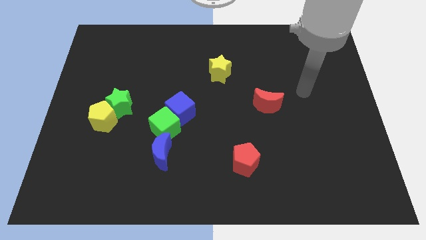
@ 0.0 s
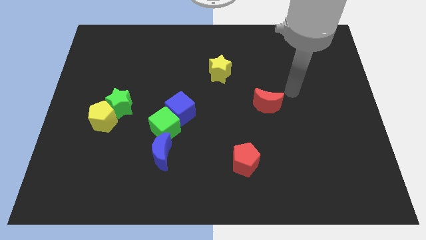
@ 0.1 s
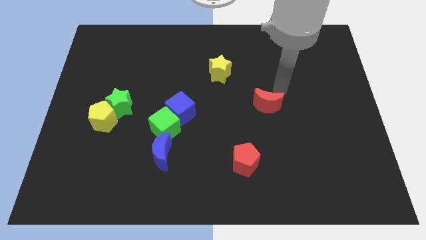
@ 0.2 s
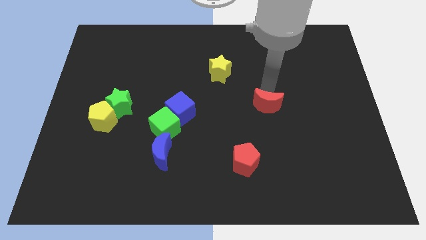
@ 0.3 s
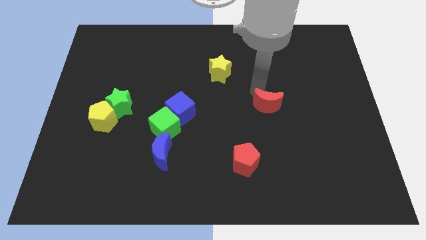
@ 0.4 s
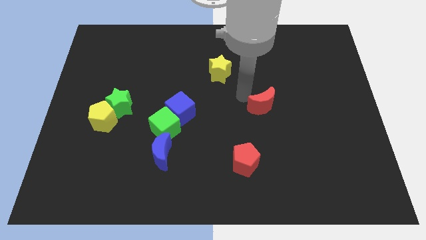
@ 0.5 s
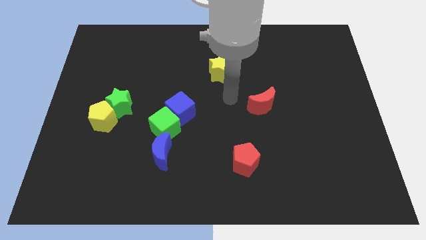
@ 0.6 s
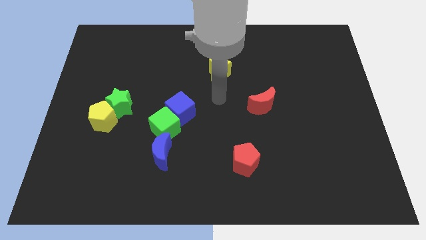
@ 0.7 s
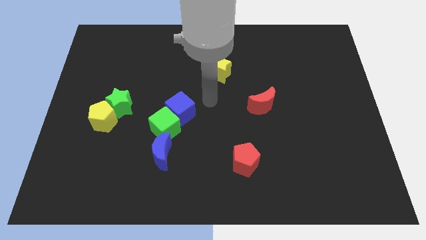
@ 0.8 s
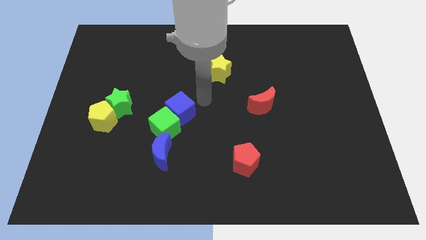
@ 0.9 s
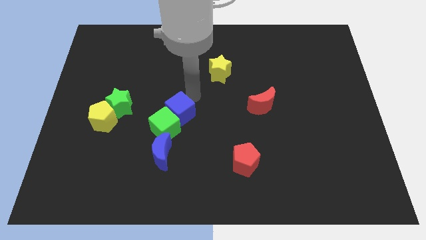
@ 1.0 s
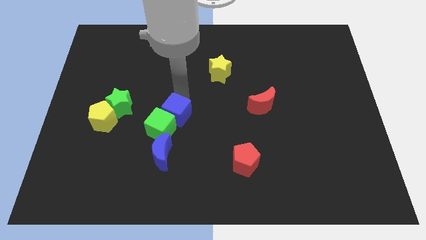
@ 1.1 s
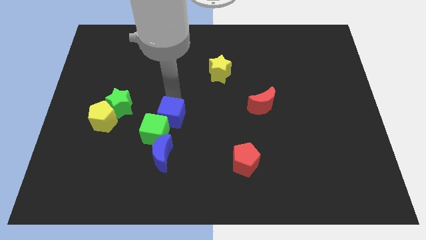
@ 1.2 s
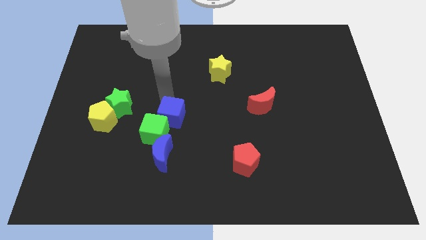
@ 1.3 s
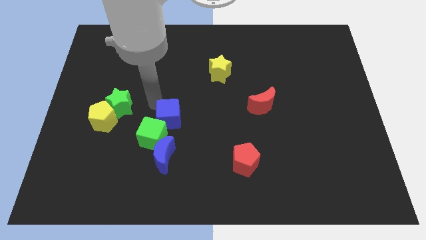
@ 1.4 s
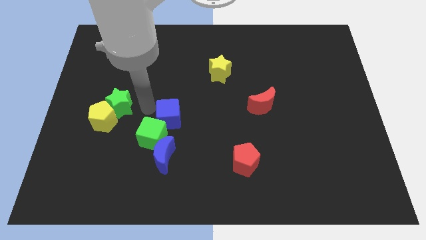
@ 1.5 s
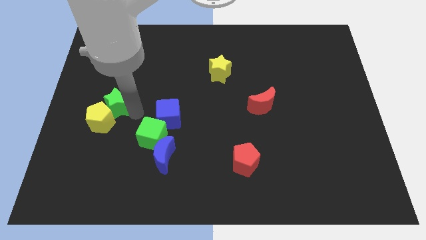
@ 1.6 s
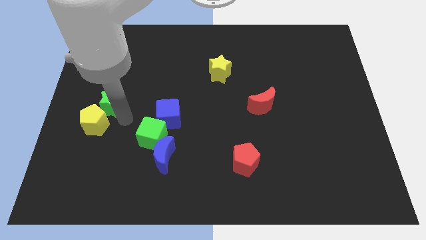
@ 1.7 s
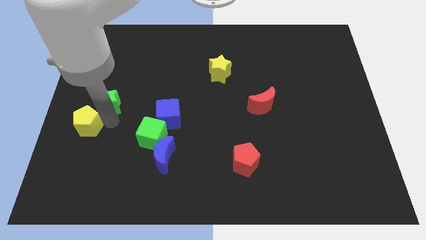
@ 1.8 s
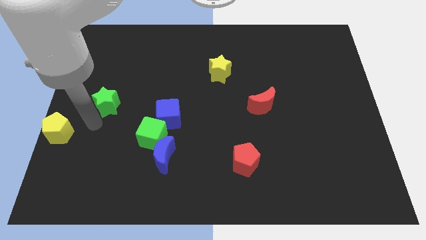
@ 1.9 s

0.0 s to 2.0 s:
move the green star away from the yellow pentagon

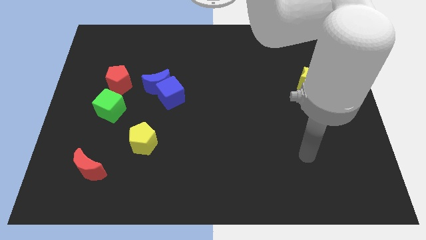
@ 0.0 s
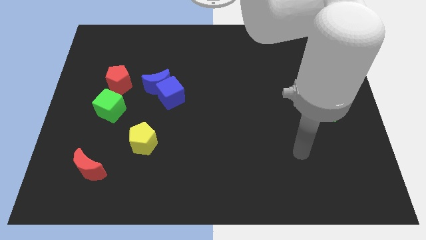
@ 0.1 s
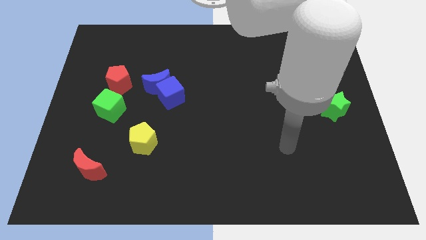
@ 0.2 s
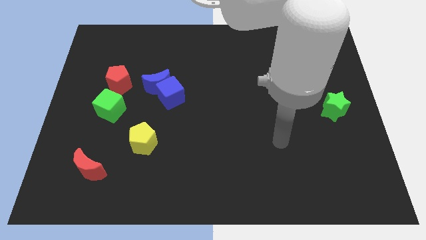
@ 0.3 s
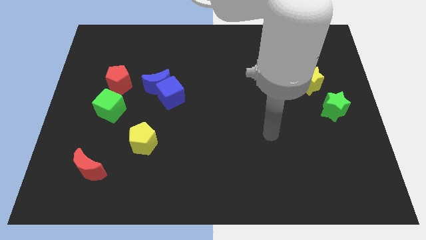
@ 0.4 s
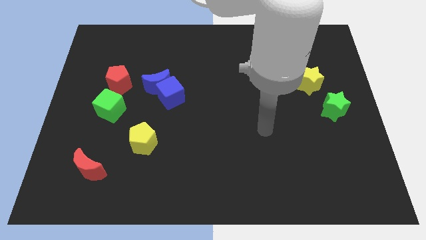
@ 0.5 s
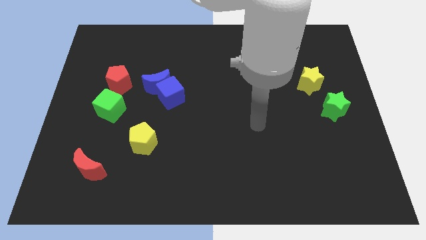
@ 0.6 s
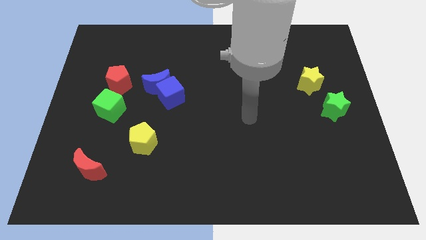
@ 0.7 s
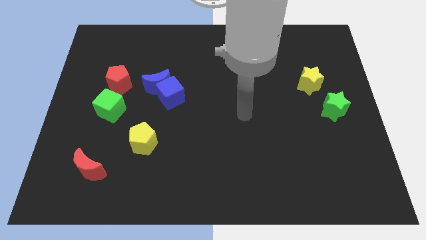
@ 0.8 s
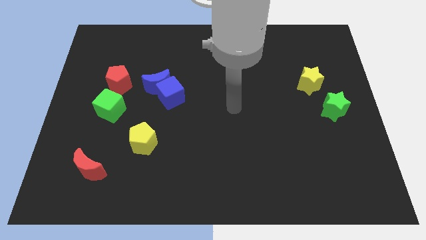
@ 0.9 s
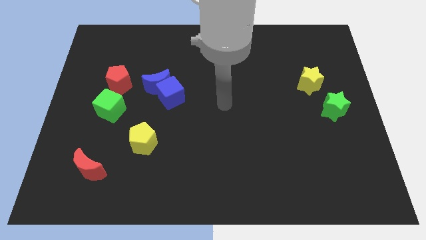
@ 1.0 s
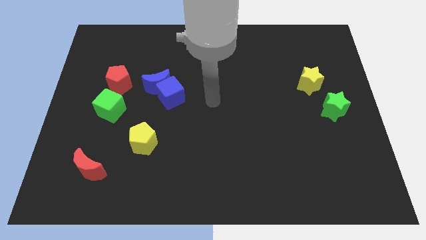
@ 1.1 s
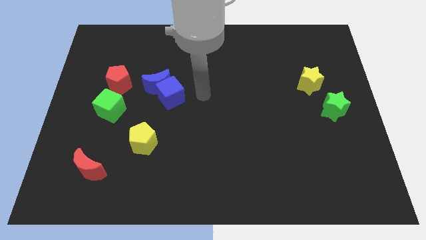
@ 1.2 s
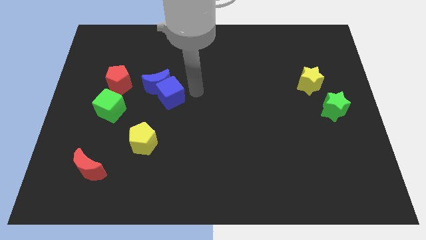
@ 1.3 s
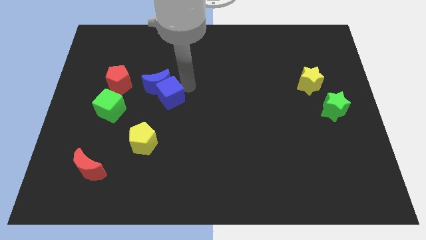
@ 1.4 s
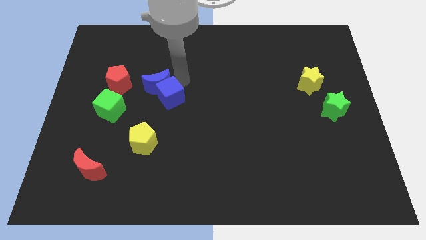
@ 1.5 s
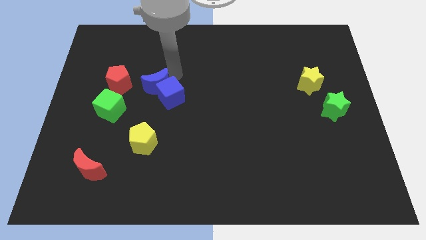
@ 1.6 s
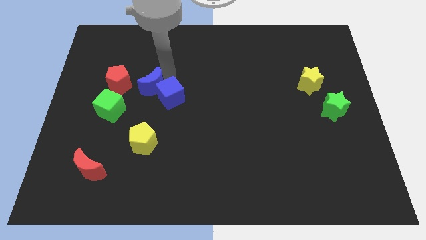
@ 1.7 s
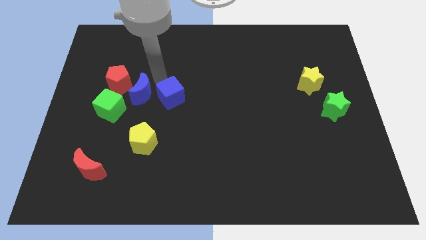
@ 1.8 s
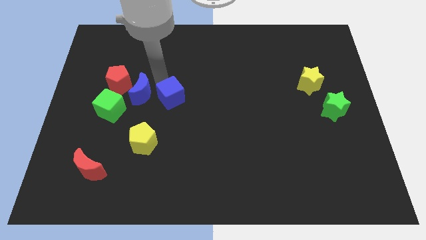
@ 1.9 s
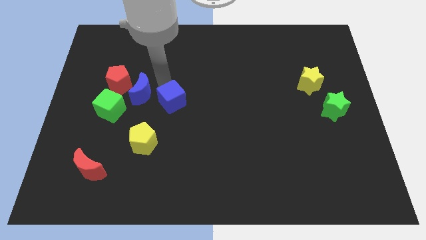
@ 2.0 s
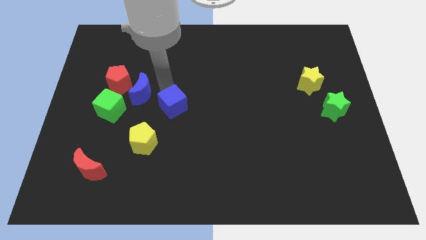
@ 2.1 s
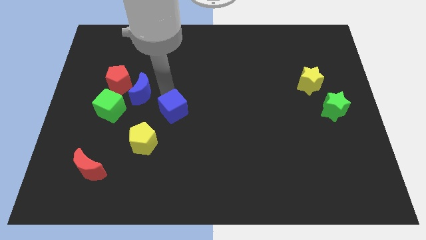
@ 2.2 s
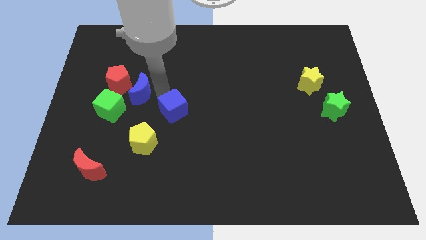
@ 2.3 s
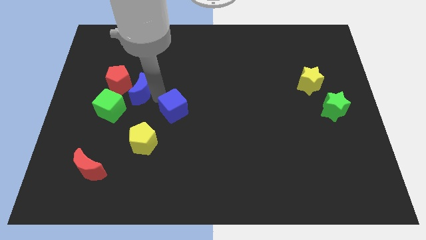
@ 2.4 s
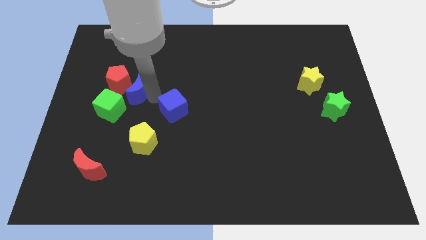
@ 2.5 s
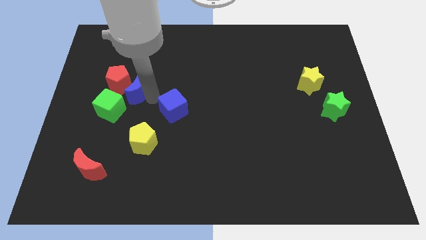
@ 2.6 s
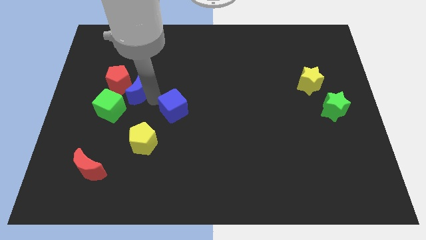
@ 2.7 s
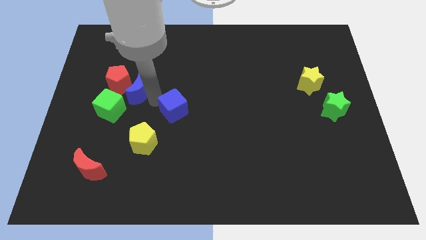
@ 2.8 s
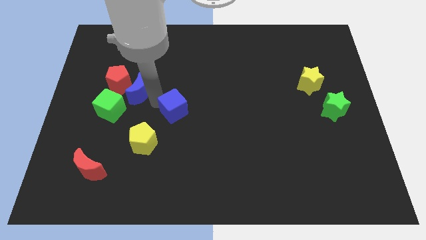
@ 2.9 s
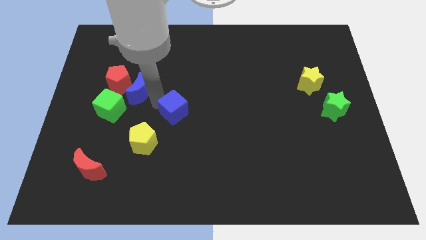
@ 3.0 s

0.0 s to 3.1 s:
separate the blue cube from the blue moon

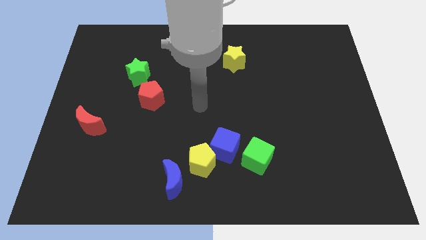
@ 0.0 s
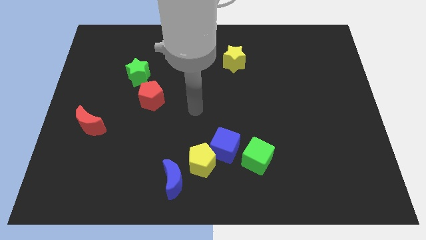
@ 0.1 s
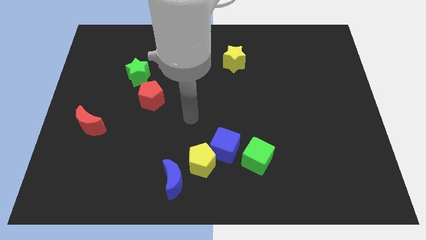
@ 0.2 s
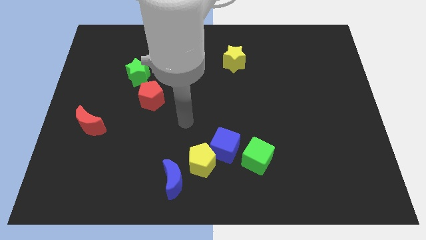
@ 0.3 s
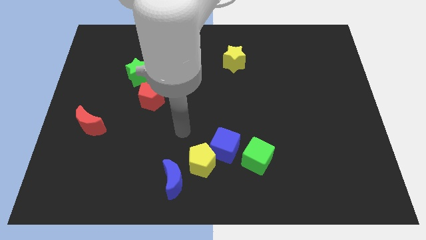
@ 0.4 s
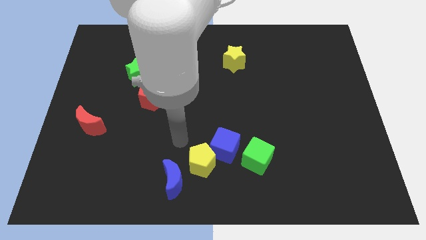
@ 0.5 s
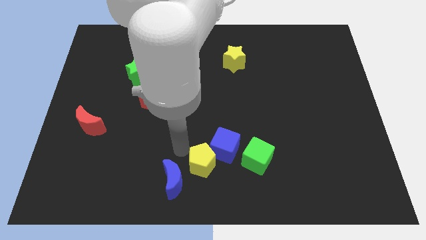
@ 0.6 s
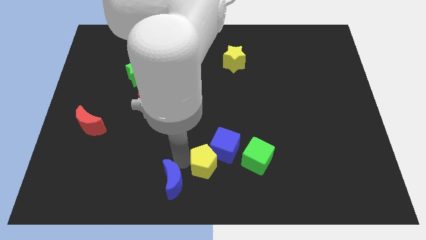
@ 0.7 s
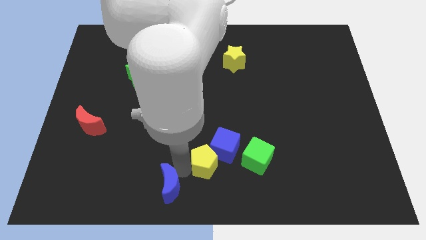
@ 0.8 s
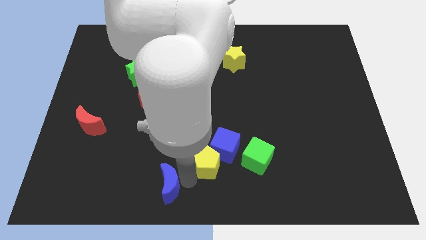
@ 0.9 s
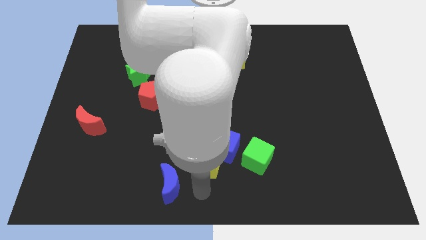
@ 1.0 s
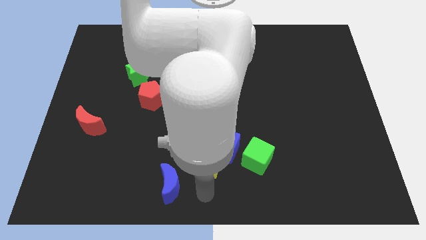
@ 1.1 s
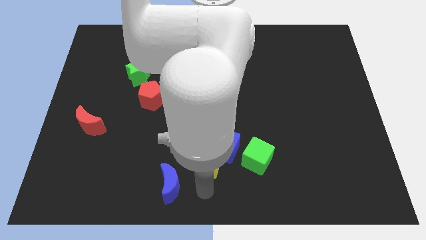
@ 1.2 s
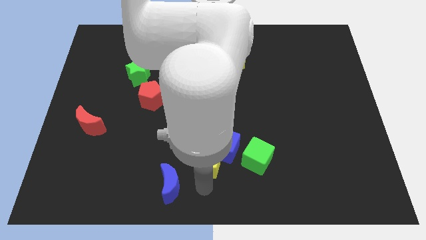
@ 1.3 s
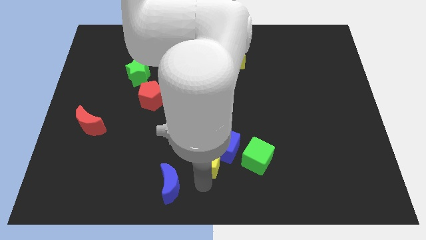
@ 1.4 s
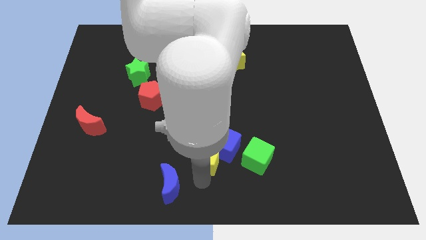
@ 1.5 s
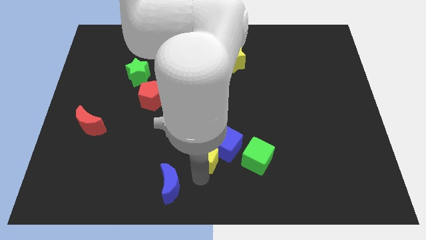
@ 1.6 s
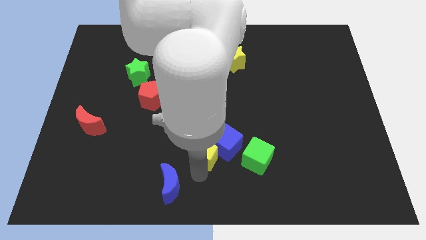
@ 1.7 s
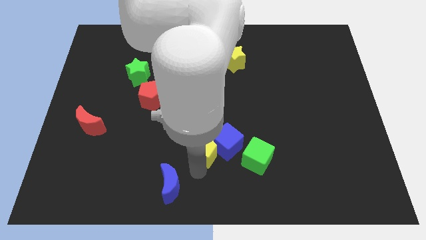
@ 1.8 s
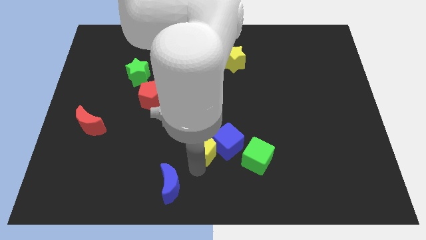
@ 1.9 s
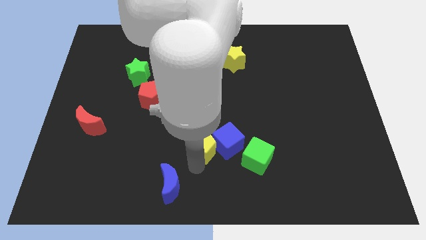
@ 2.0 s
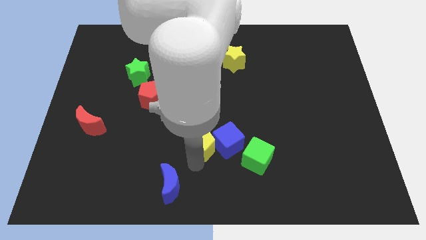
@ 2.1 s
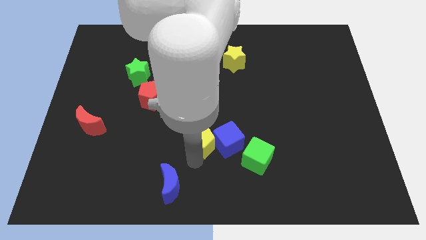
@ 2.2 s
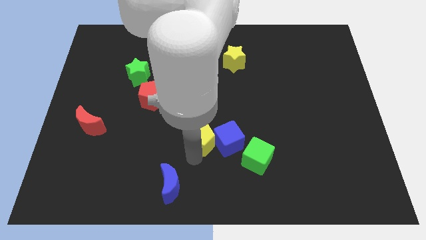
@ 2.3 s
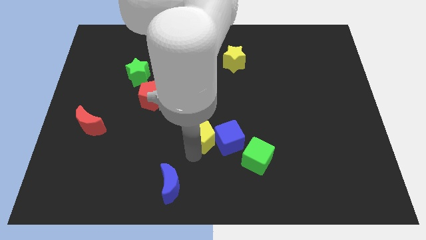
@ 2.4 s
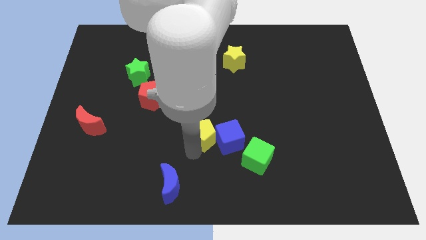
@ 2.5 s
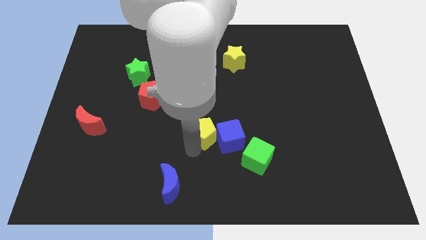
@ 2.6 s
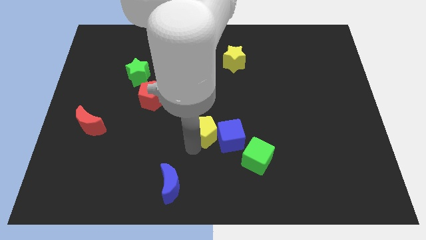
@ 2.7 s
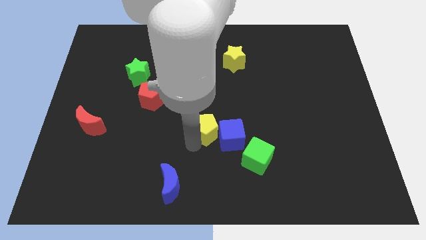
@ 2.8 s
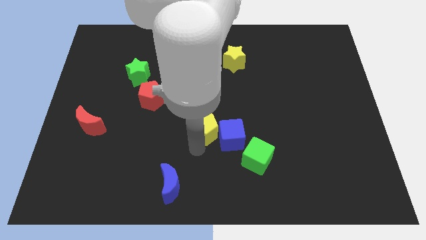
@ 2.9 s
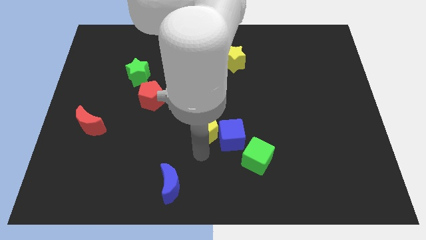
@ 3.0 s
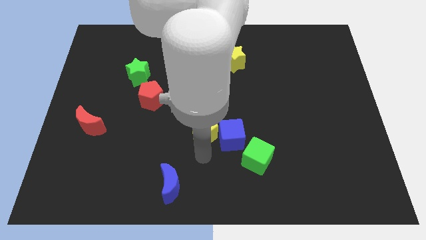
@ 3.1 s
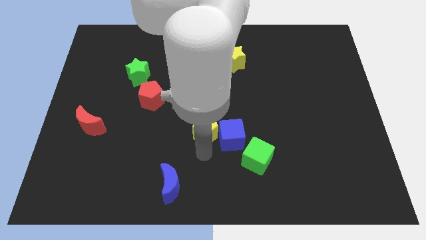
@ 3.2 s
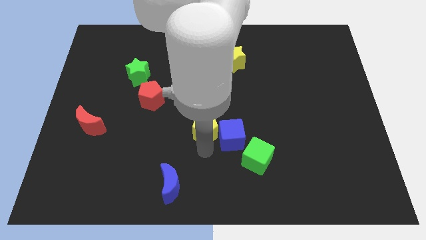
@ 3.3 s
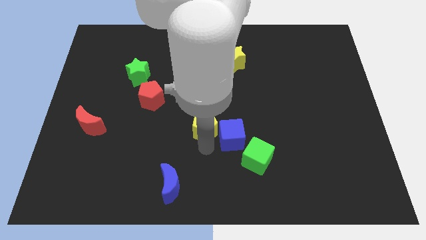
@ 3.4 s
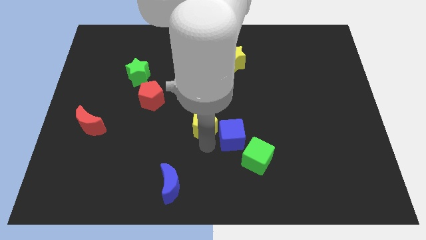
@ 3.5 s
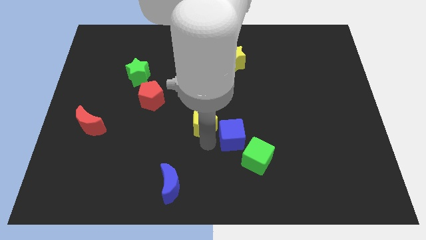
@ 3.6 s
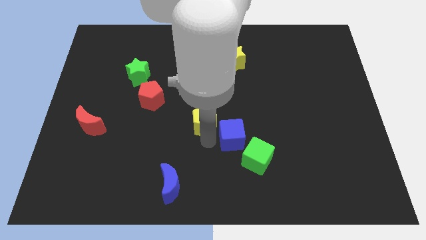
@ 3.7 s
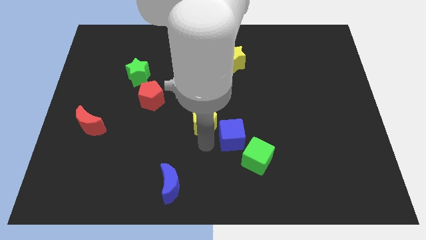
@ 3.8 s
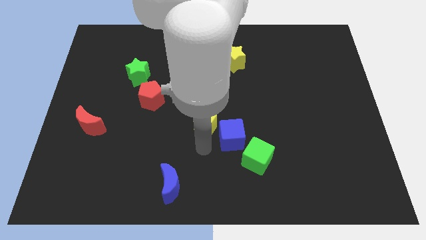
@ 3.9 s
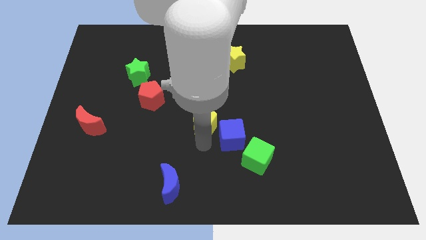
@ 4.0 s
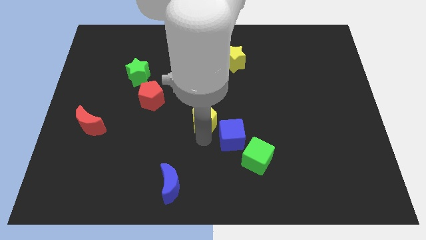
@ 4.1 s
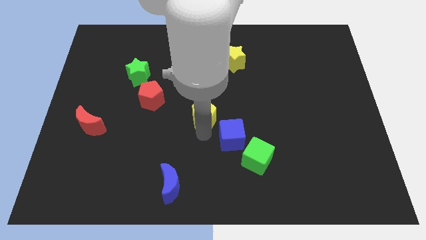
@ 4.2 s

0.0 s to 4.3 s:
move the yellow pentagon away from the blue cube and blue moon
